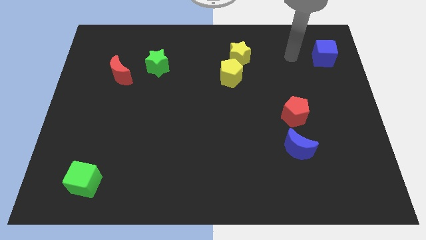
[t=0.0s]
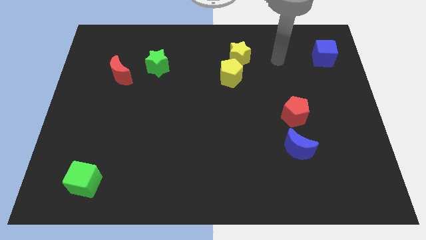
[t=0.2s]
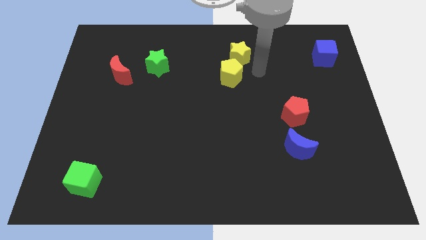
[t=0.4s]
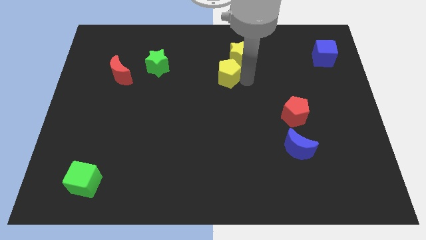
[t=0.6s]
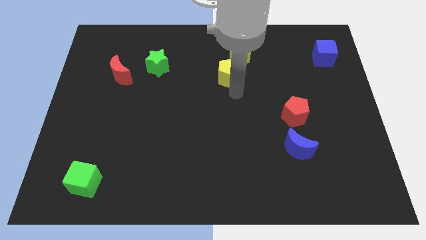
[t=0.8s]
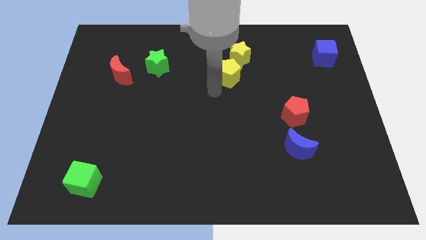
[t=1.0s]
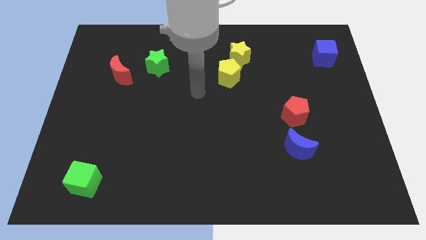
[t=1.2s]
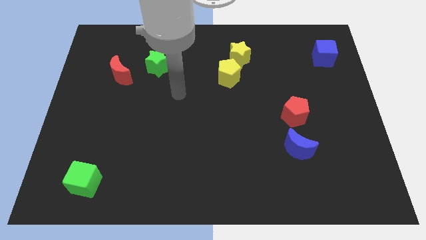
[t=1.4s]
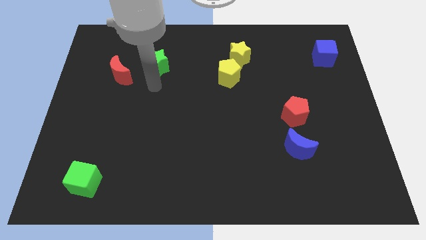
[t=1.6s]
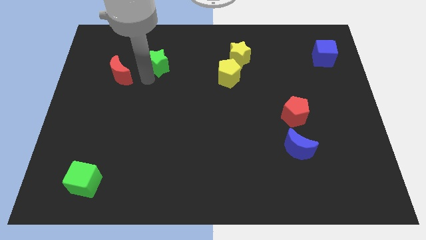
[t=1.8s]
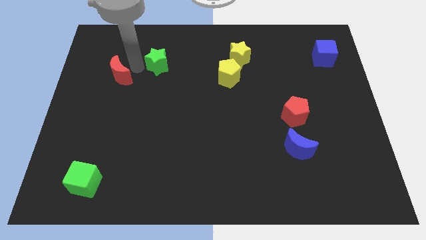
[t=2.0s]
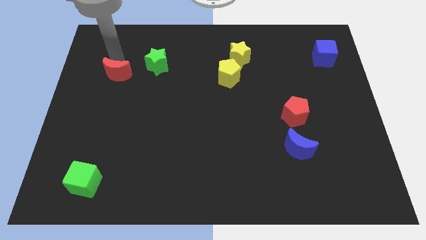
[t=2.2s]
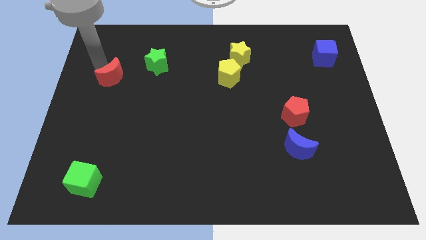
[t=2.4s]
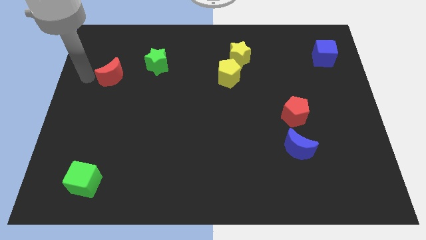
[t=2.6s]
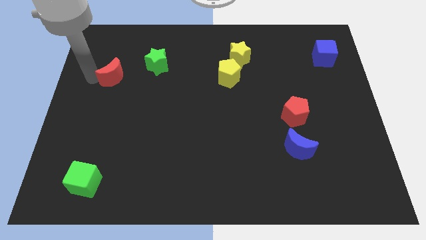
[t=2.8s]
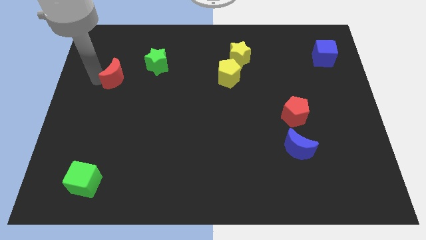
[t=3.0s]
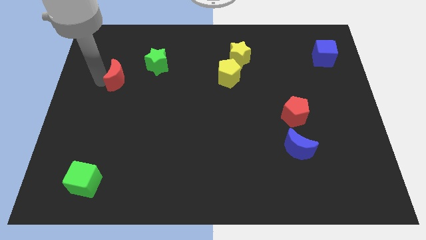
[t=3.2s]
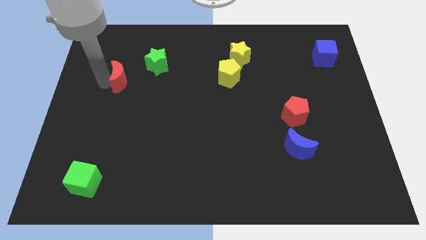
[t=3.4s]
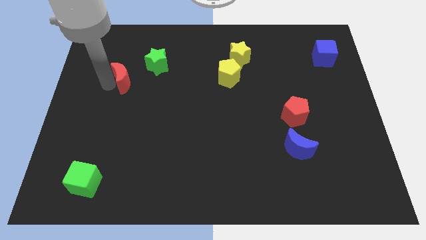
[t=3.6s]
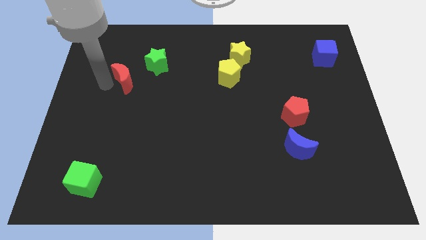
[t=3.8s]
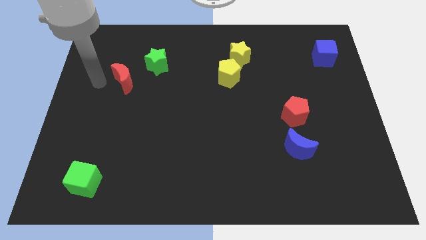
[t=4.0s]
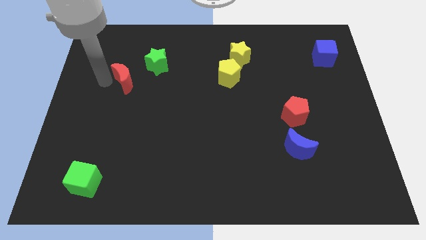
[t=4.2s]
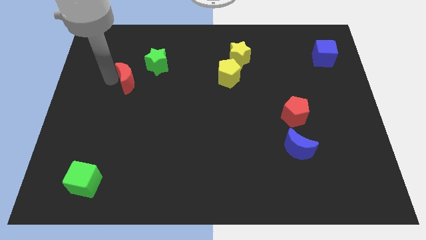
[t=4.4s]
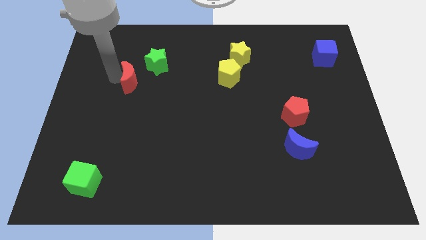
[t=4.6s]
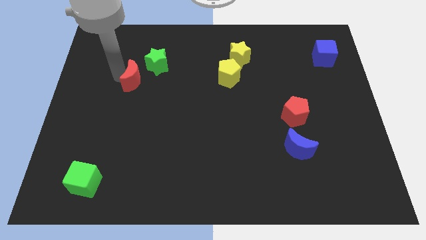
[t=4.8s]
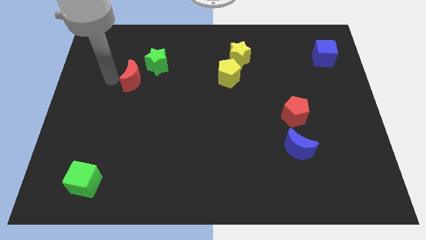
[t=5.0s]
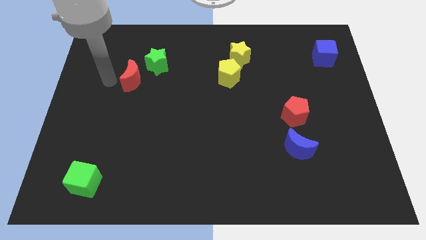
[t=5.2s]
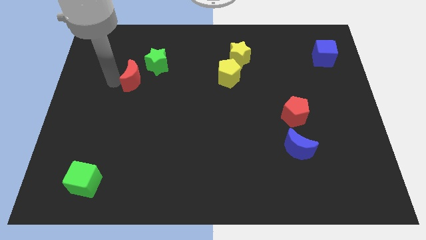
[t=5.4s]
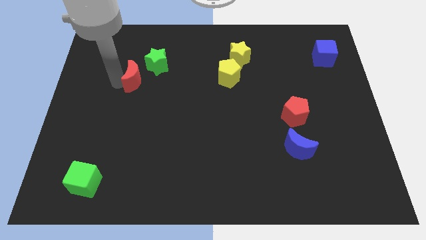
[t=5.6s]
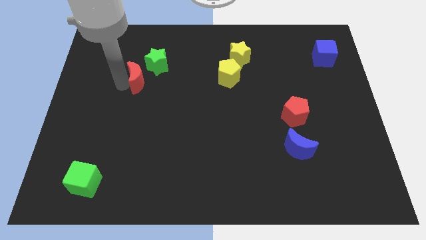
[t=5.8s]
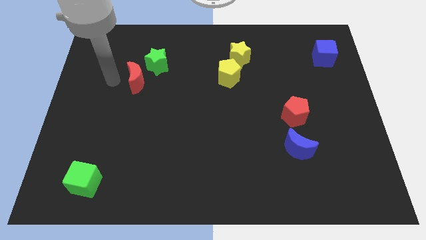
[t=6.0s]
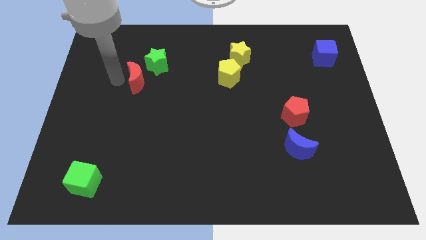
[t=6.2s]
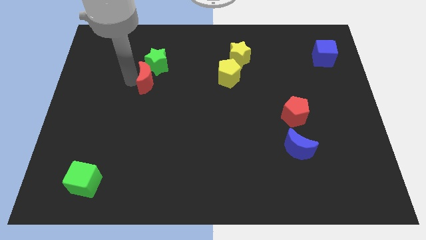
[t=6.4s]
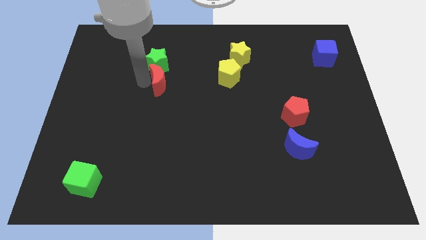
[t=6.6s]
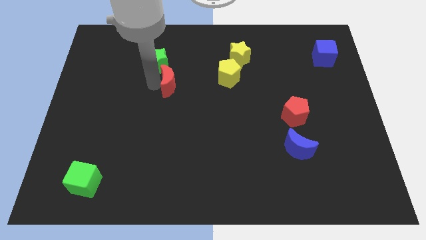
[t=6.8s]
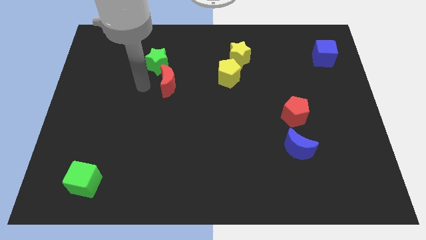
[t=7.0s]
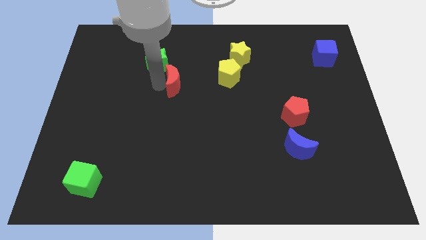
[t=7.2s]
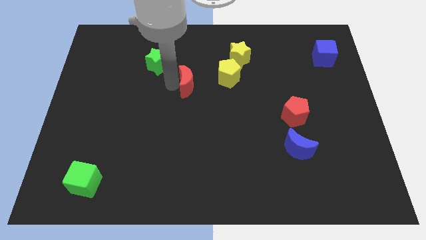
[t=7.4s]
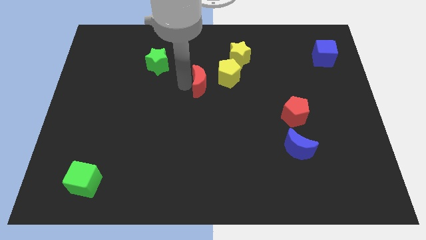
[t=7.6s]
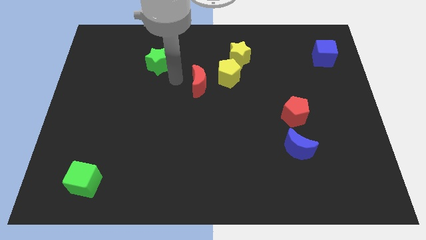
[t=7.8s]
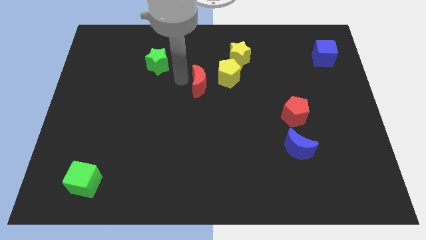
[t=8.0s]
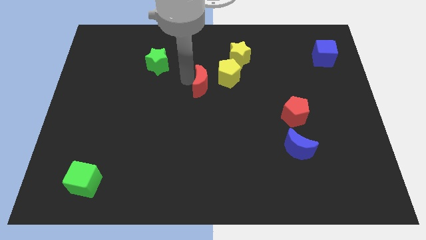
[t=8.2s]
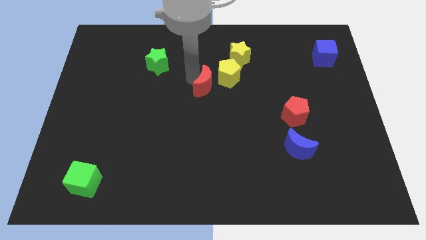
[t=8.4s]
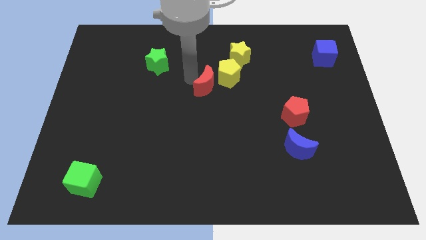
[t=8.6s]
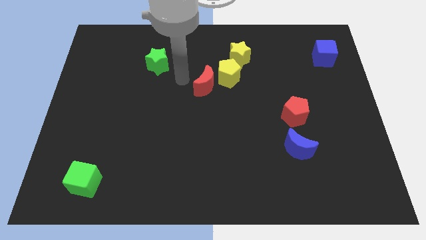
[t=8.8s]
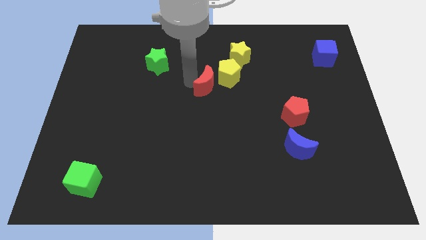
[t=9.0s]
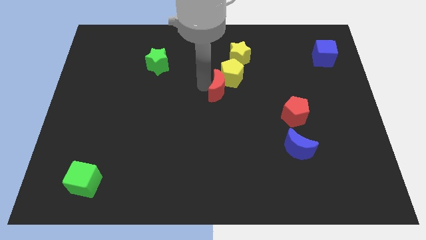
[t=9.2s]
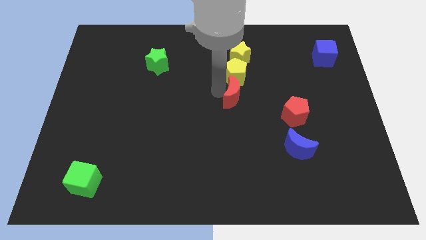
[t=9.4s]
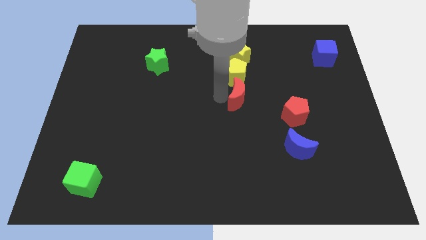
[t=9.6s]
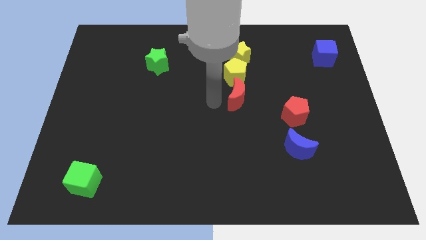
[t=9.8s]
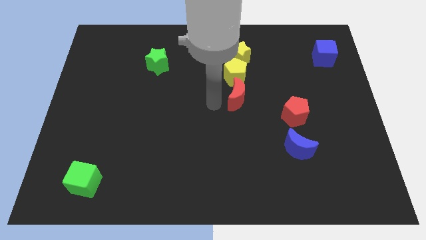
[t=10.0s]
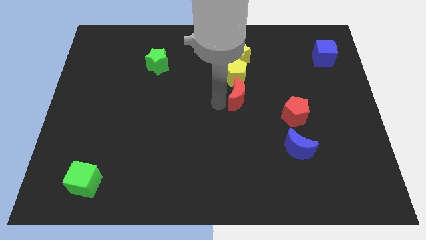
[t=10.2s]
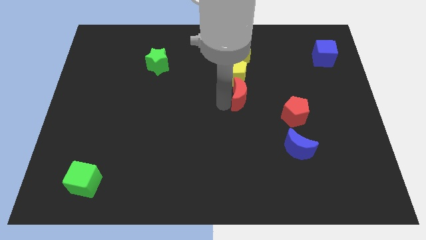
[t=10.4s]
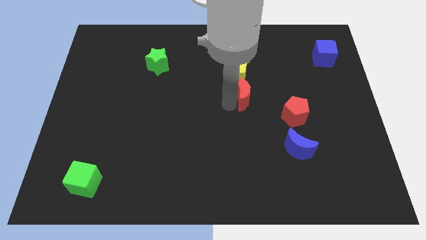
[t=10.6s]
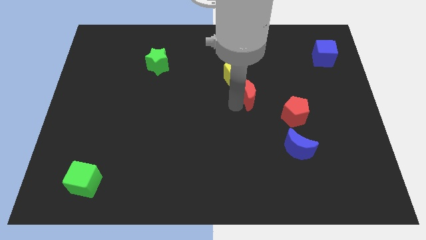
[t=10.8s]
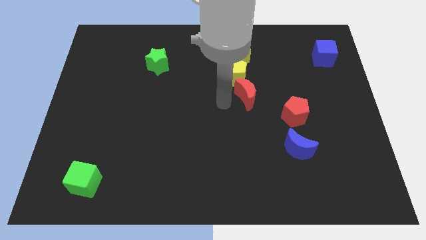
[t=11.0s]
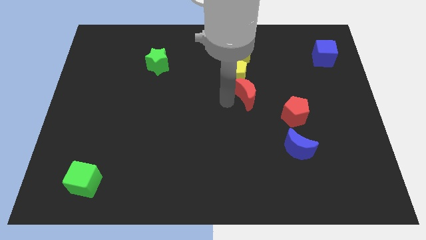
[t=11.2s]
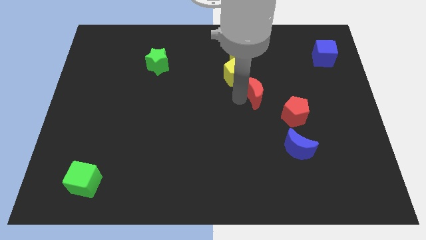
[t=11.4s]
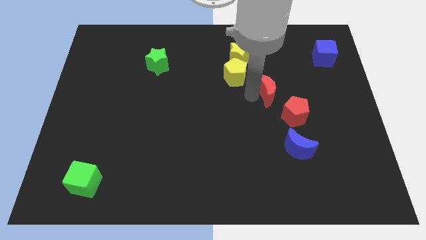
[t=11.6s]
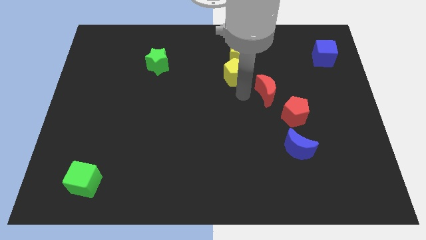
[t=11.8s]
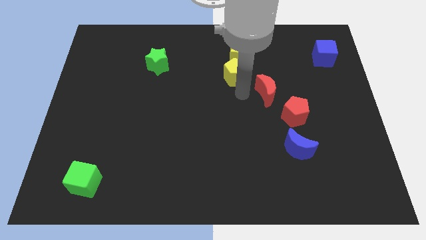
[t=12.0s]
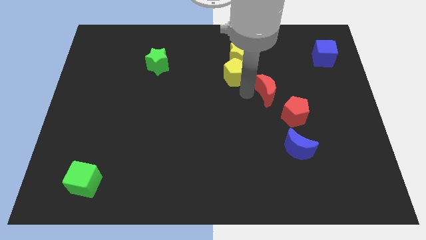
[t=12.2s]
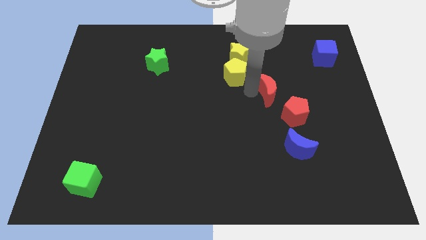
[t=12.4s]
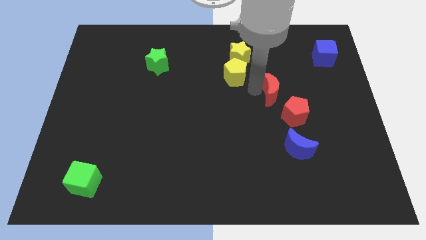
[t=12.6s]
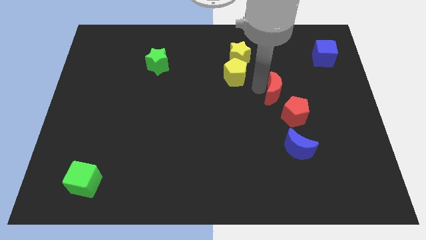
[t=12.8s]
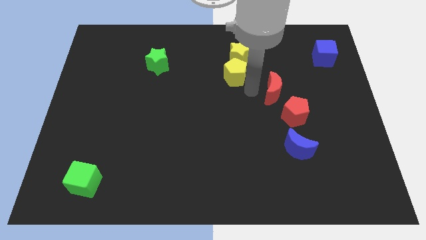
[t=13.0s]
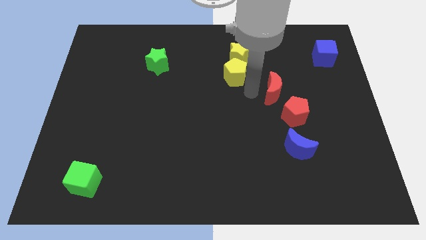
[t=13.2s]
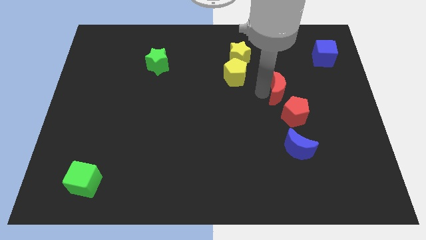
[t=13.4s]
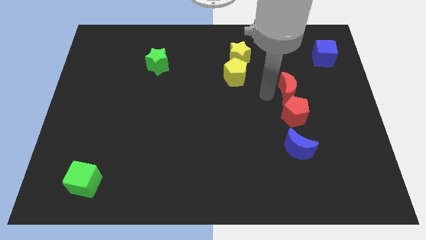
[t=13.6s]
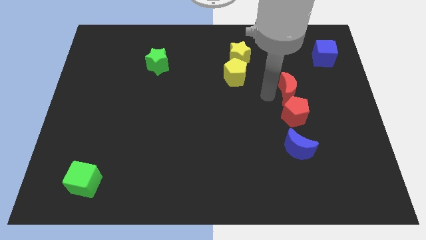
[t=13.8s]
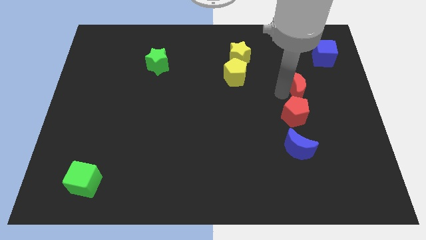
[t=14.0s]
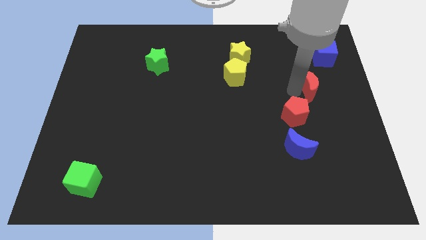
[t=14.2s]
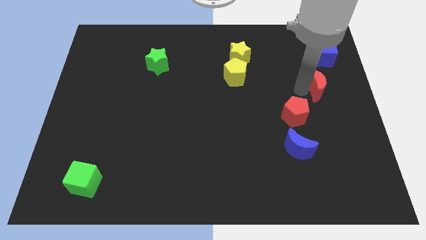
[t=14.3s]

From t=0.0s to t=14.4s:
slide the red moon below the blue cube
